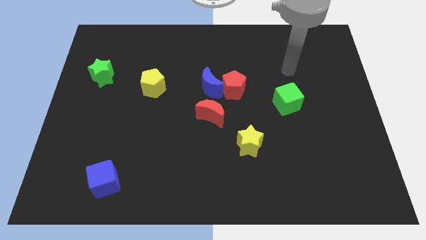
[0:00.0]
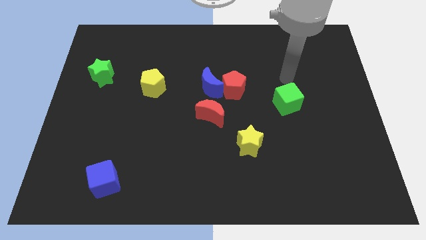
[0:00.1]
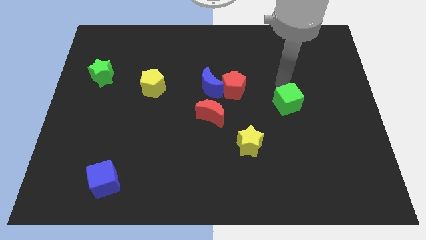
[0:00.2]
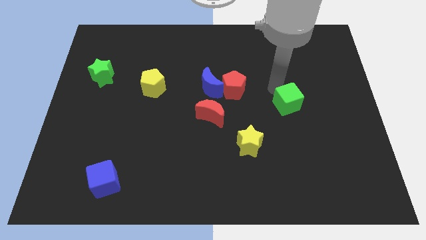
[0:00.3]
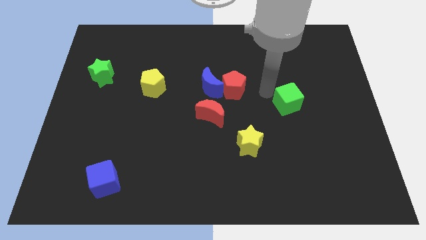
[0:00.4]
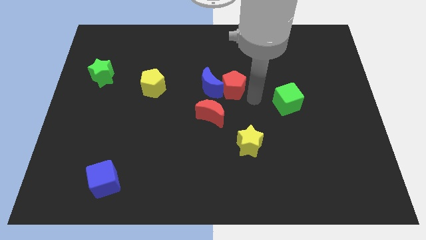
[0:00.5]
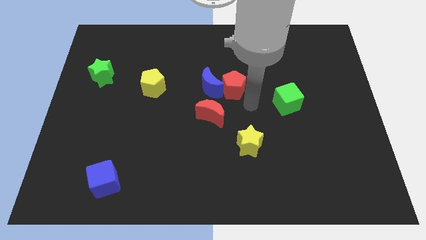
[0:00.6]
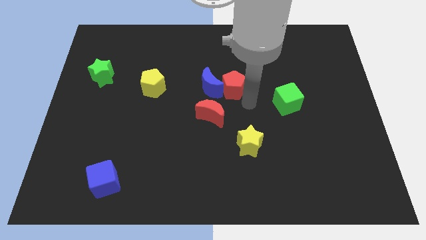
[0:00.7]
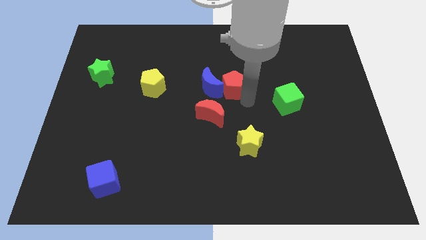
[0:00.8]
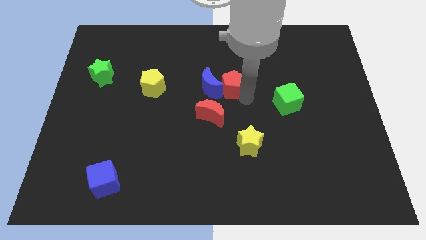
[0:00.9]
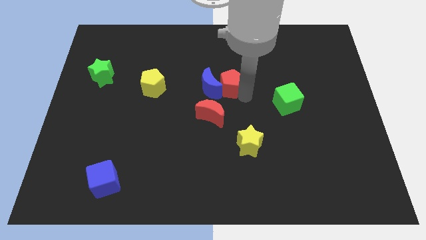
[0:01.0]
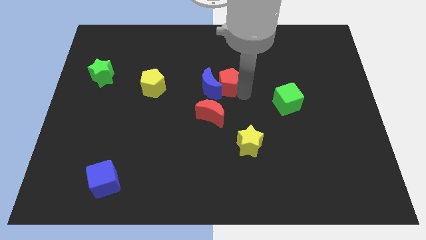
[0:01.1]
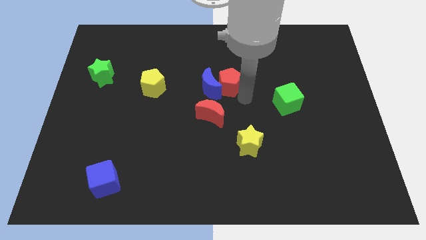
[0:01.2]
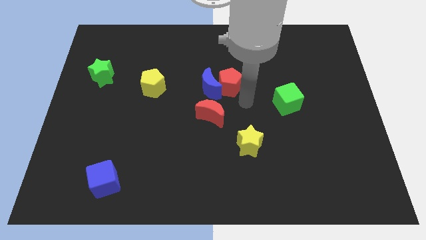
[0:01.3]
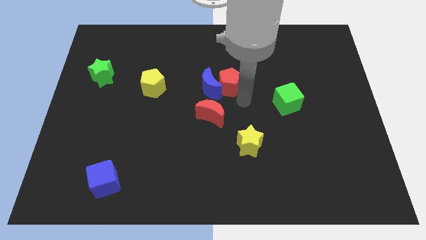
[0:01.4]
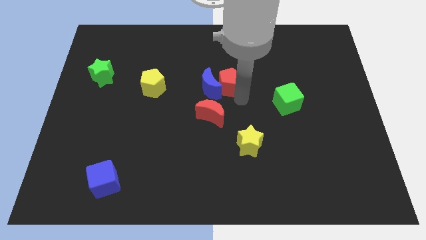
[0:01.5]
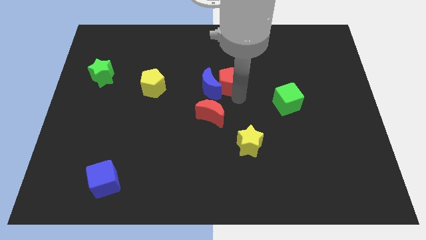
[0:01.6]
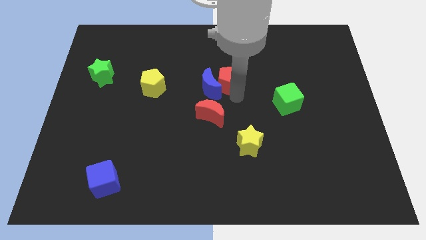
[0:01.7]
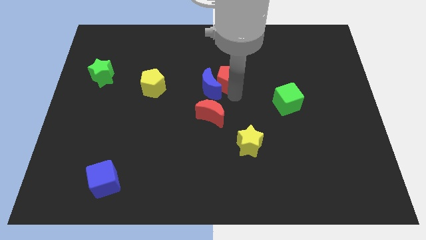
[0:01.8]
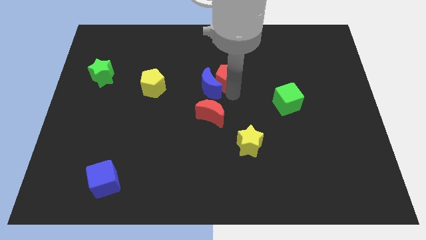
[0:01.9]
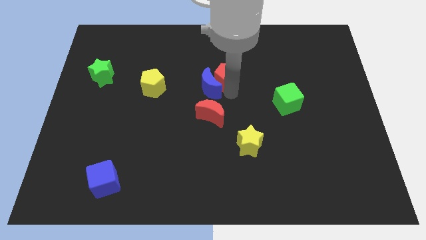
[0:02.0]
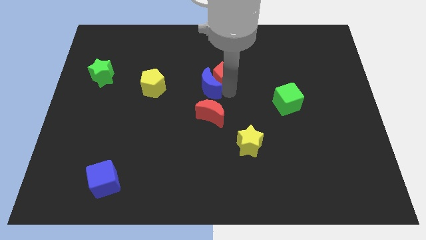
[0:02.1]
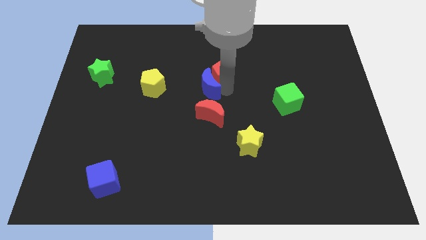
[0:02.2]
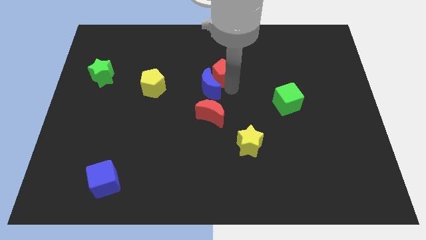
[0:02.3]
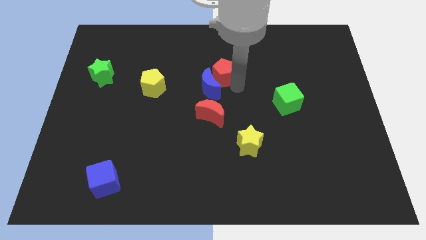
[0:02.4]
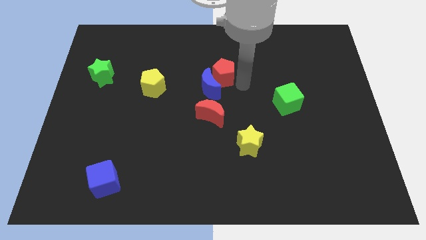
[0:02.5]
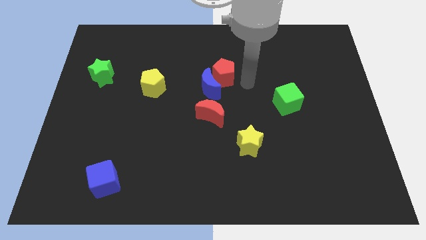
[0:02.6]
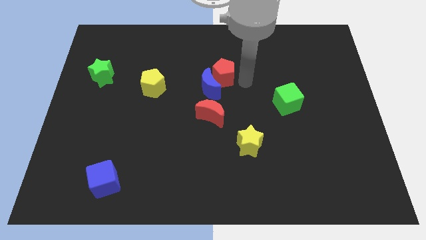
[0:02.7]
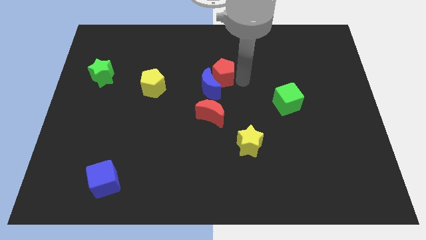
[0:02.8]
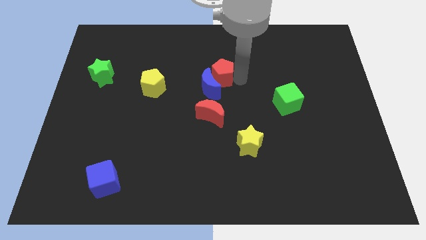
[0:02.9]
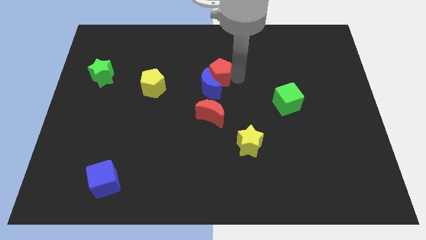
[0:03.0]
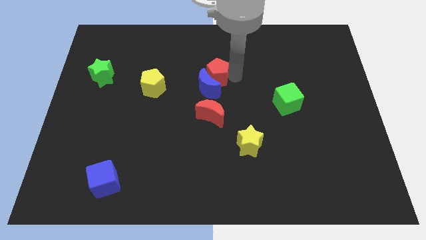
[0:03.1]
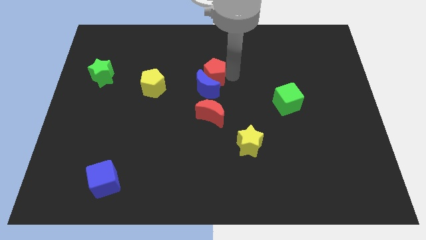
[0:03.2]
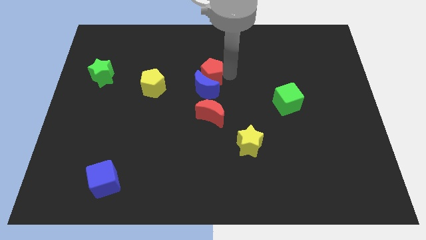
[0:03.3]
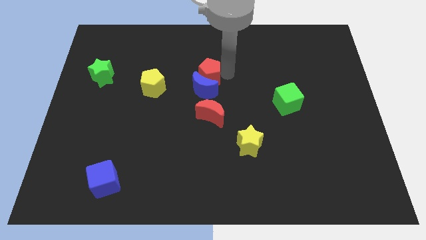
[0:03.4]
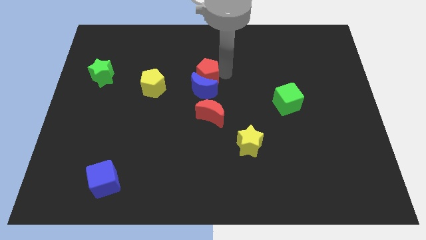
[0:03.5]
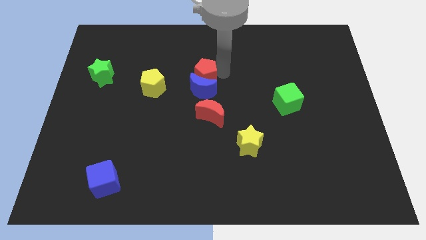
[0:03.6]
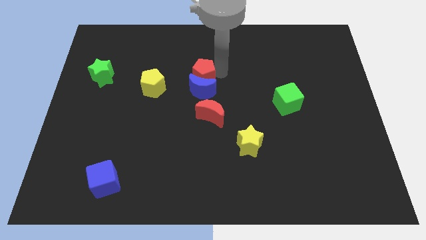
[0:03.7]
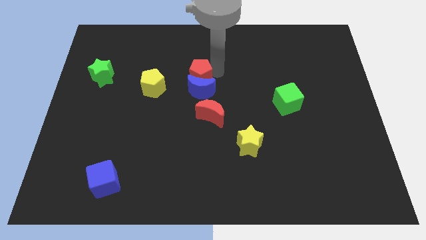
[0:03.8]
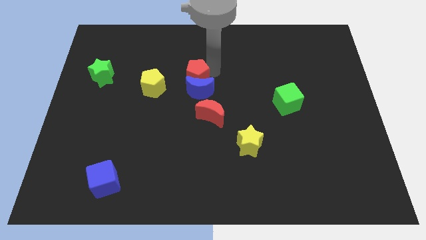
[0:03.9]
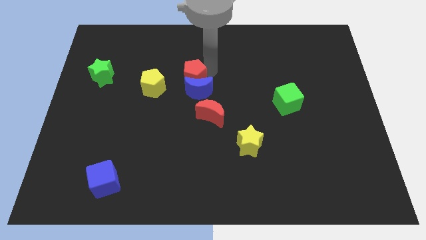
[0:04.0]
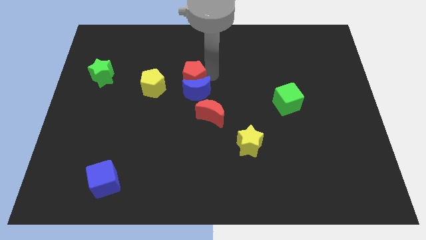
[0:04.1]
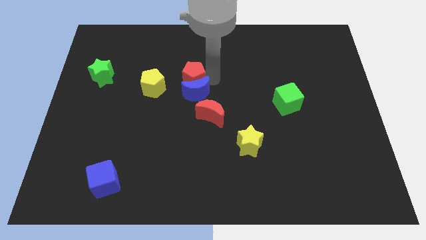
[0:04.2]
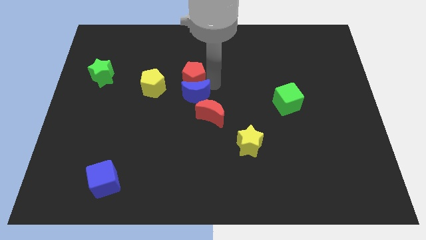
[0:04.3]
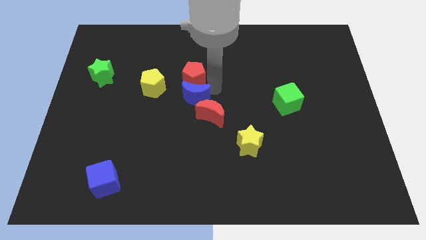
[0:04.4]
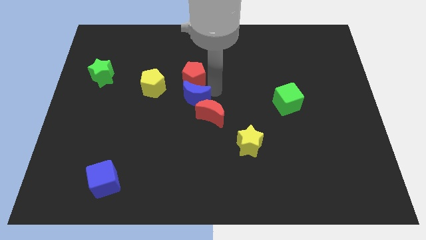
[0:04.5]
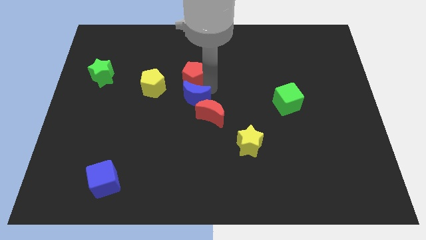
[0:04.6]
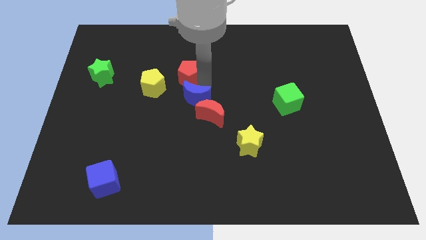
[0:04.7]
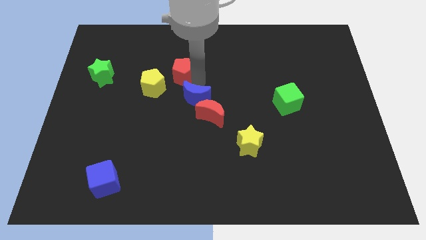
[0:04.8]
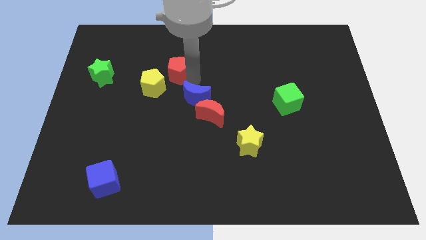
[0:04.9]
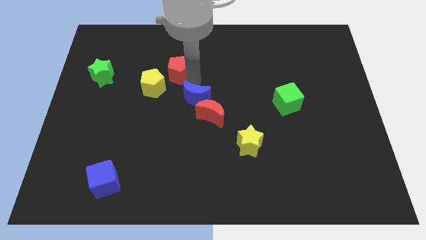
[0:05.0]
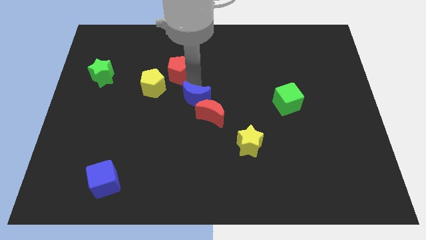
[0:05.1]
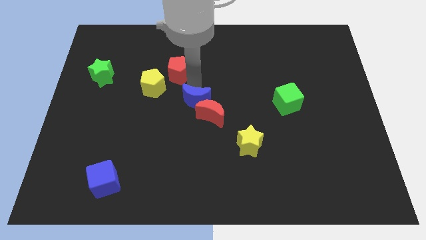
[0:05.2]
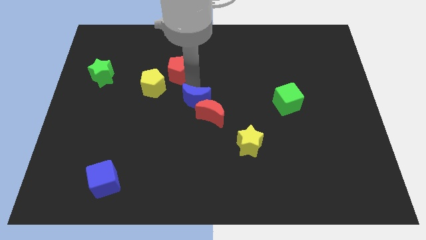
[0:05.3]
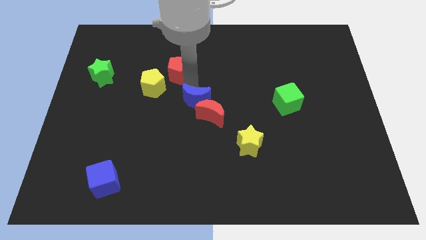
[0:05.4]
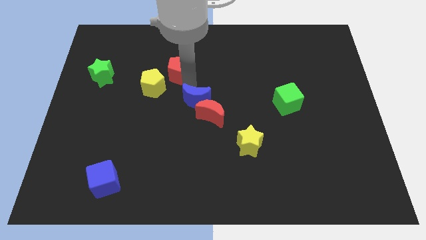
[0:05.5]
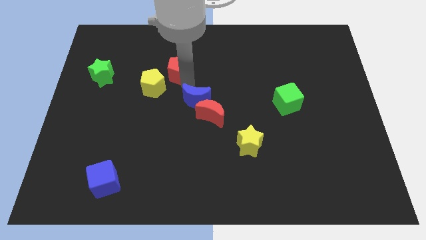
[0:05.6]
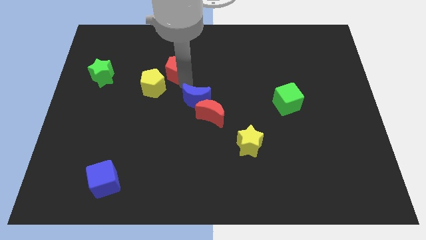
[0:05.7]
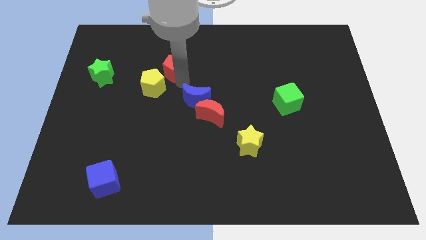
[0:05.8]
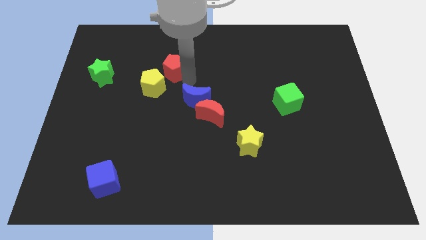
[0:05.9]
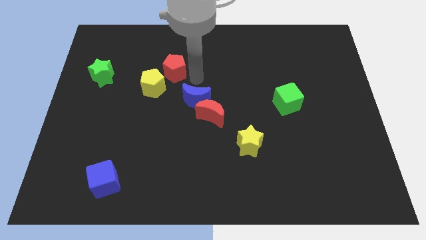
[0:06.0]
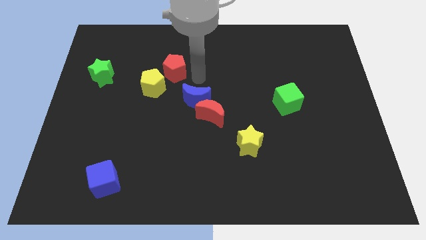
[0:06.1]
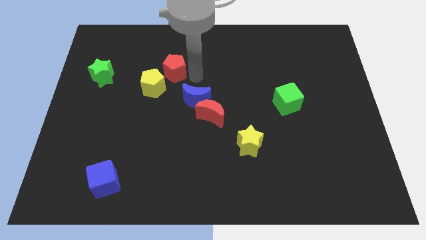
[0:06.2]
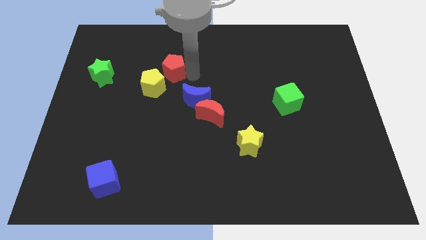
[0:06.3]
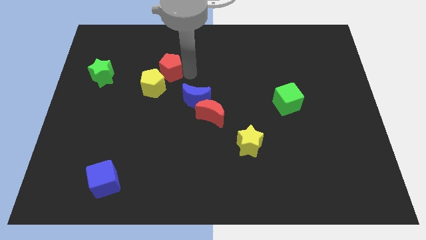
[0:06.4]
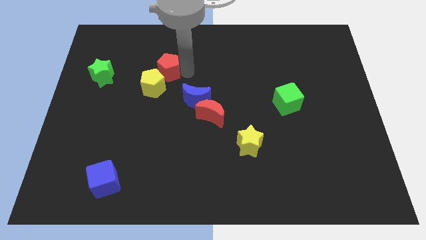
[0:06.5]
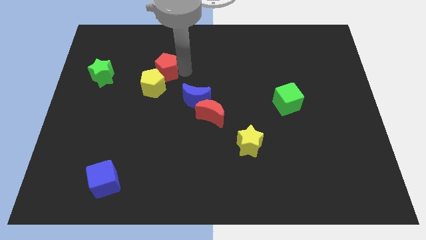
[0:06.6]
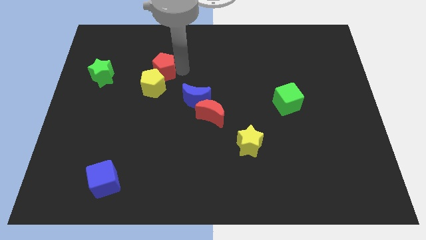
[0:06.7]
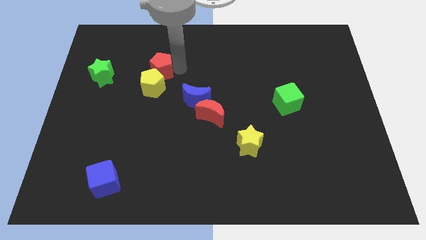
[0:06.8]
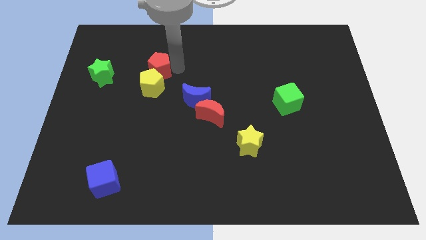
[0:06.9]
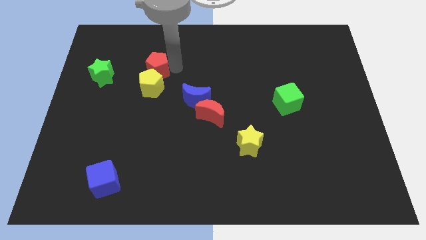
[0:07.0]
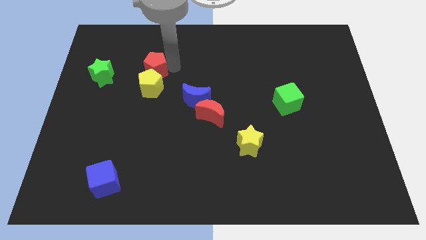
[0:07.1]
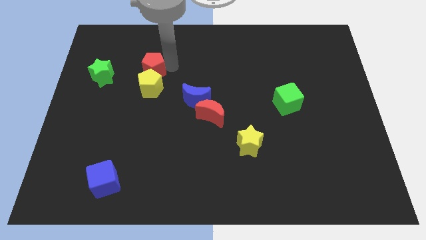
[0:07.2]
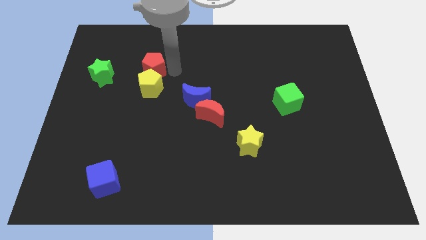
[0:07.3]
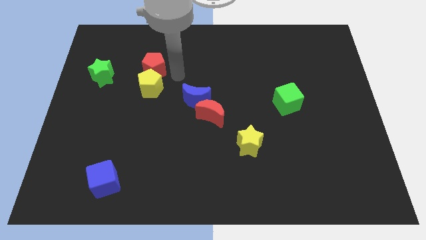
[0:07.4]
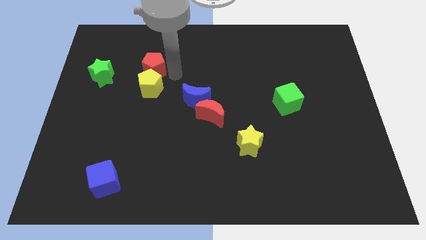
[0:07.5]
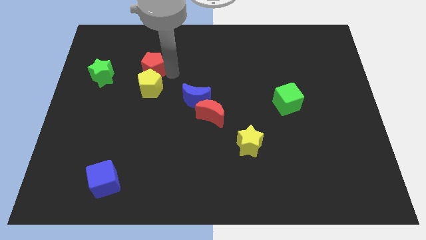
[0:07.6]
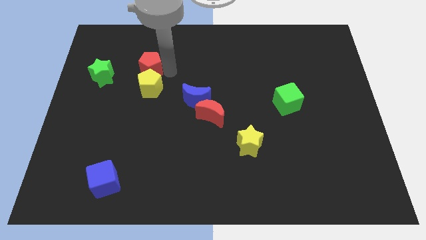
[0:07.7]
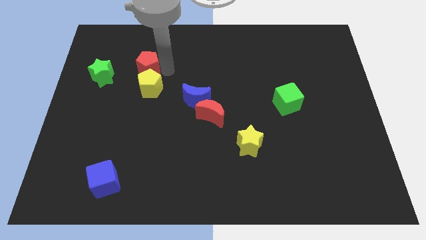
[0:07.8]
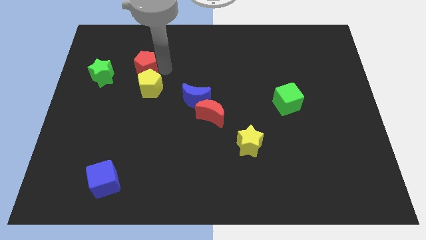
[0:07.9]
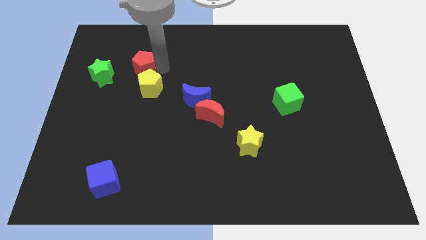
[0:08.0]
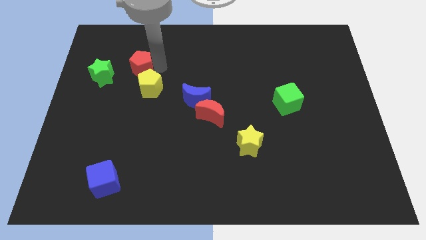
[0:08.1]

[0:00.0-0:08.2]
push the red pentagon diagonally up and to the right of the green star
